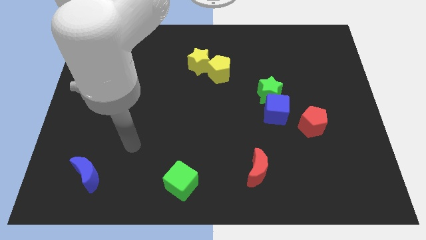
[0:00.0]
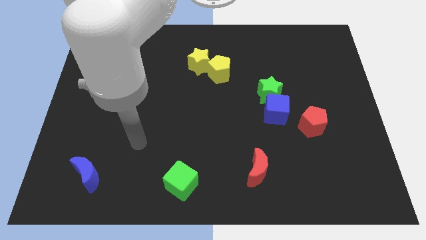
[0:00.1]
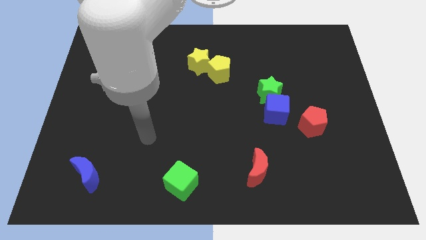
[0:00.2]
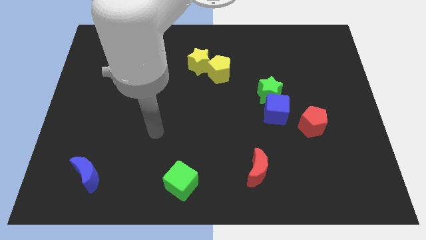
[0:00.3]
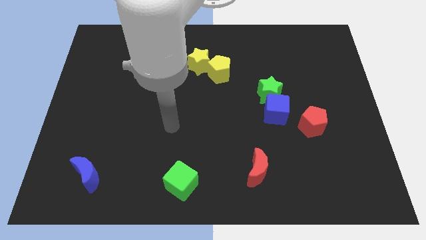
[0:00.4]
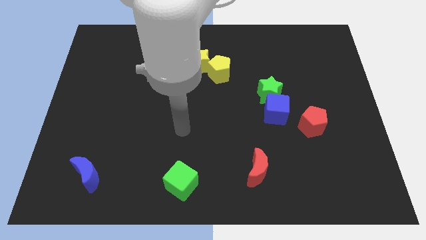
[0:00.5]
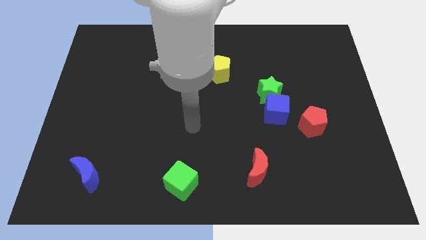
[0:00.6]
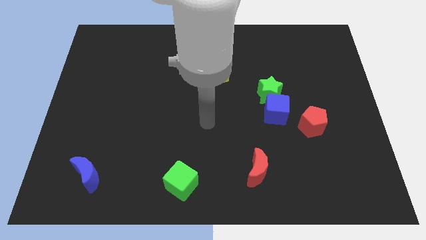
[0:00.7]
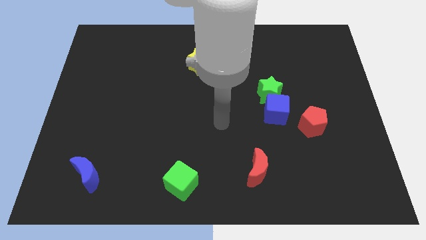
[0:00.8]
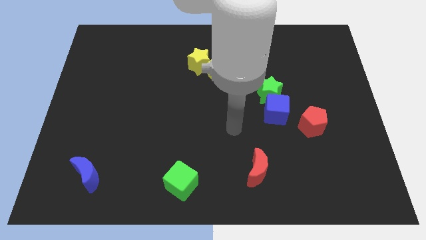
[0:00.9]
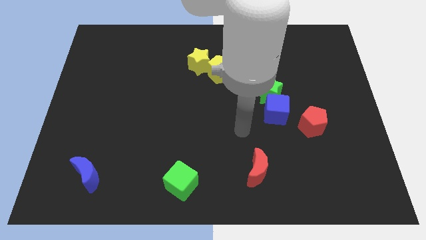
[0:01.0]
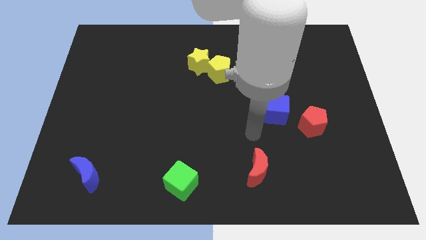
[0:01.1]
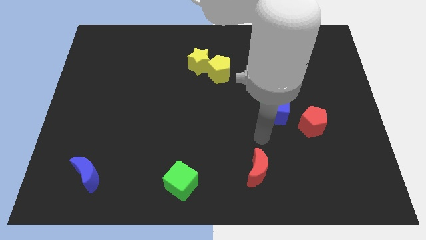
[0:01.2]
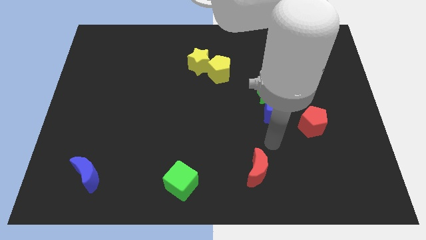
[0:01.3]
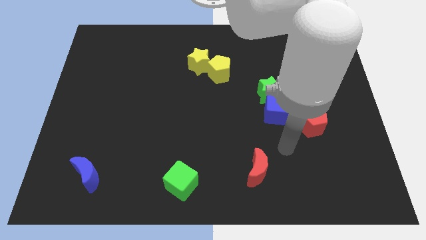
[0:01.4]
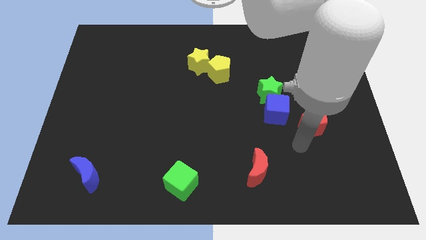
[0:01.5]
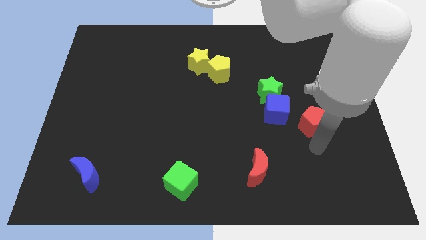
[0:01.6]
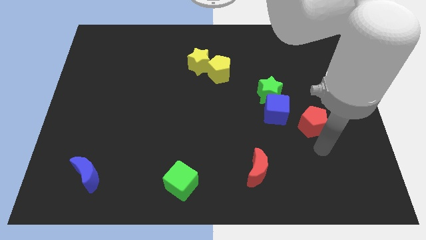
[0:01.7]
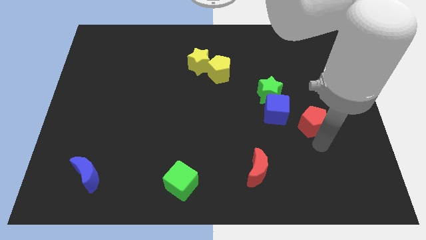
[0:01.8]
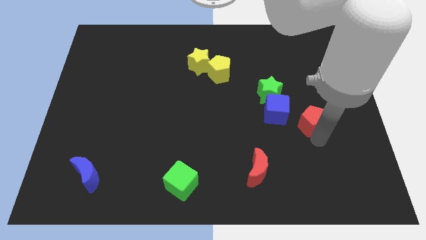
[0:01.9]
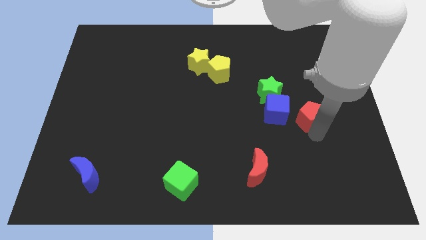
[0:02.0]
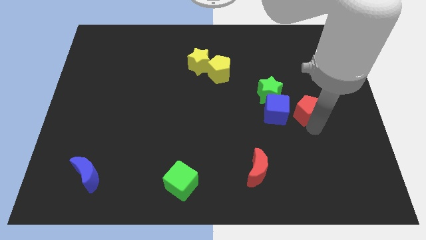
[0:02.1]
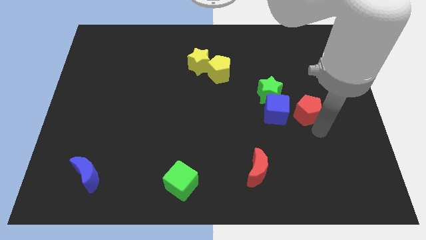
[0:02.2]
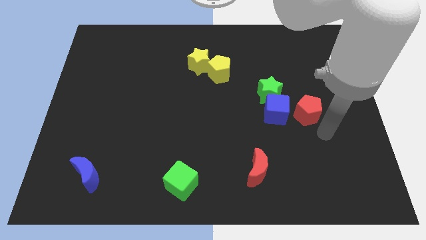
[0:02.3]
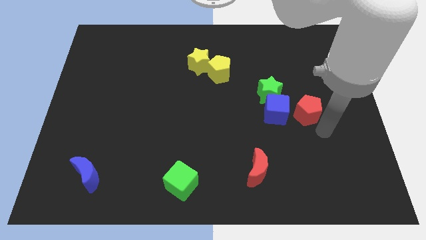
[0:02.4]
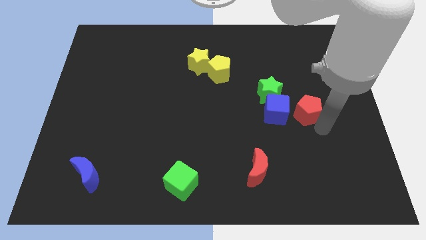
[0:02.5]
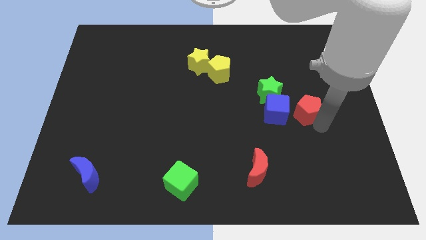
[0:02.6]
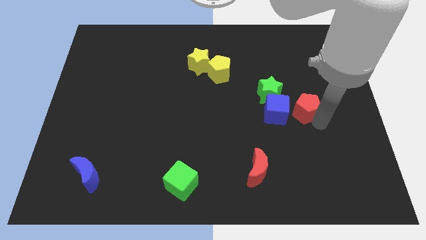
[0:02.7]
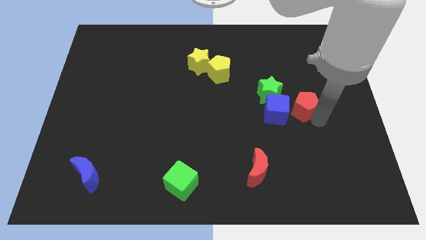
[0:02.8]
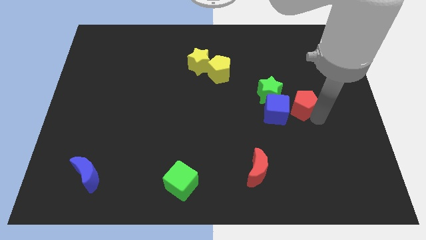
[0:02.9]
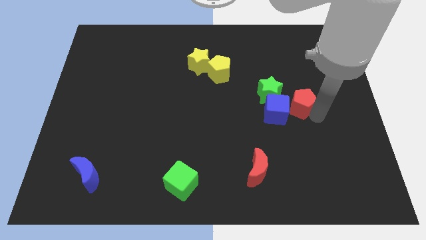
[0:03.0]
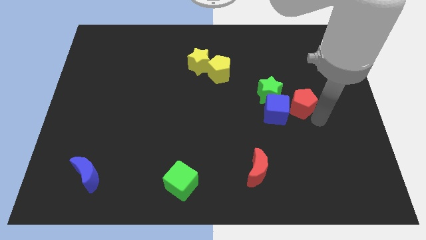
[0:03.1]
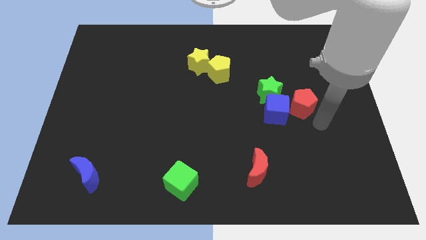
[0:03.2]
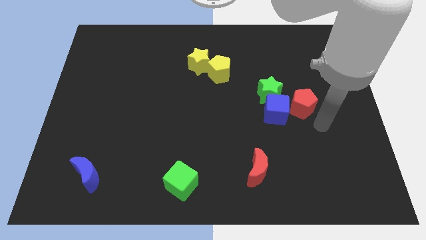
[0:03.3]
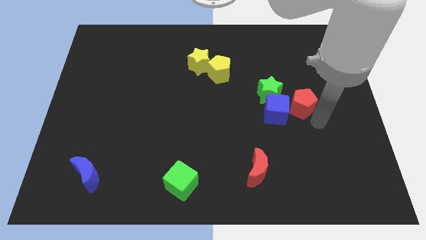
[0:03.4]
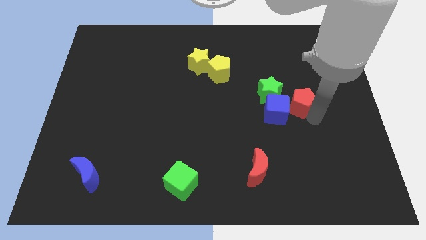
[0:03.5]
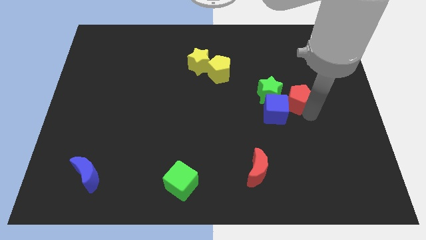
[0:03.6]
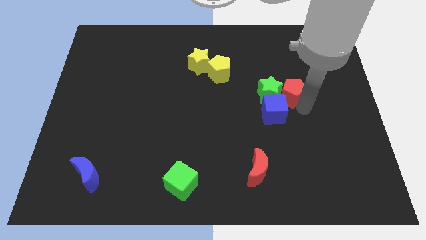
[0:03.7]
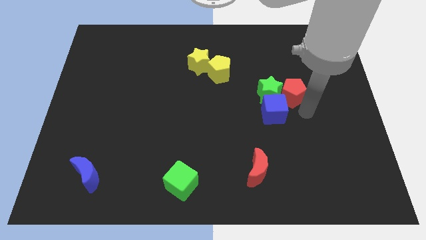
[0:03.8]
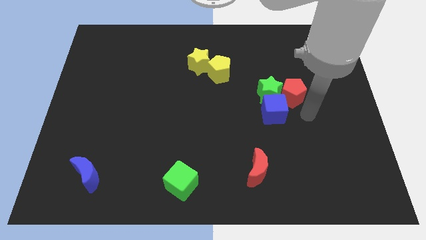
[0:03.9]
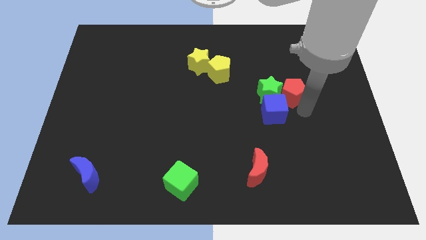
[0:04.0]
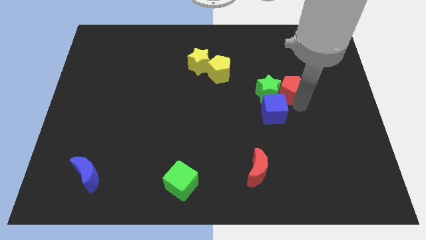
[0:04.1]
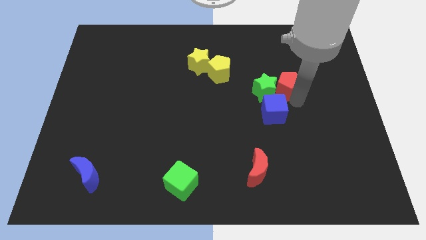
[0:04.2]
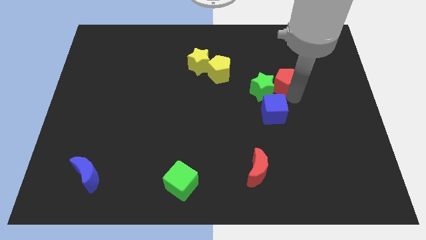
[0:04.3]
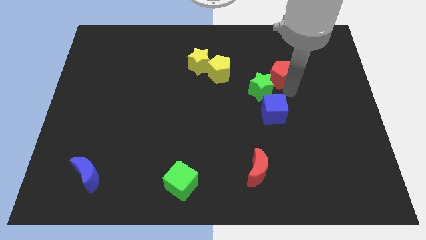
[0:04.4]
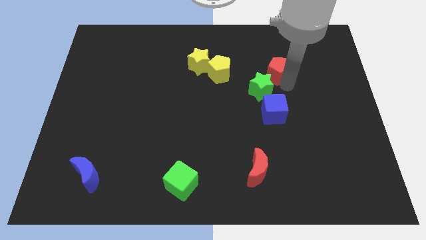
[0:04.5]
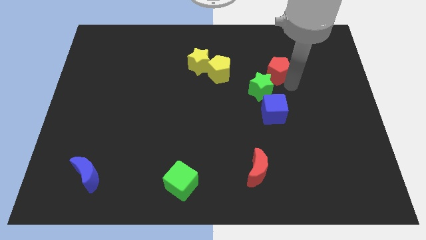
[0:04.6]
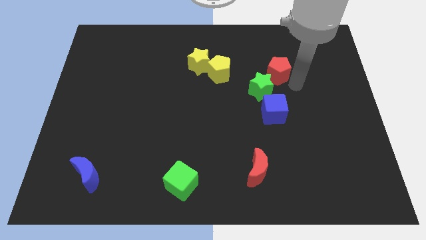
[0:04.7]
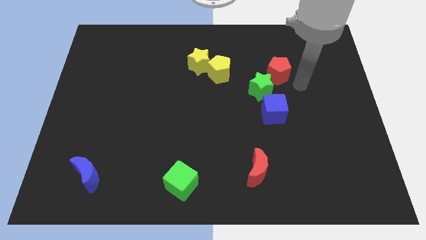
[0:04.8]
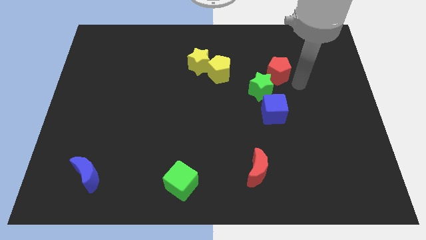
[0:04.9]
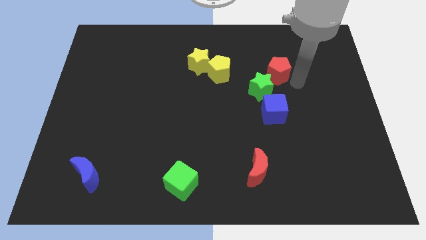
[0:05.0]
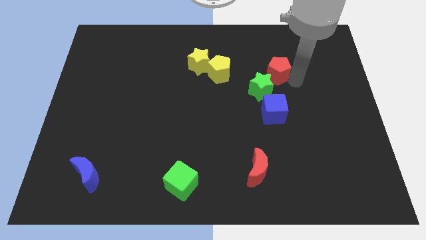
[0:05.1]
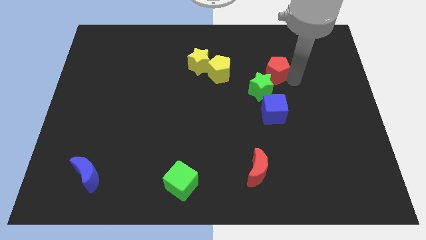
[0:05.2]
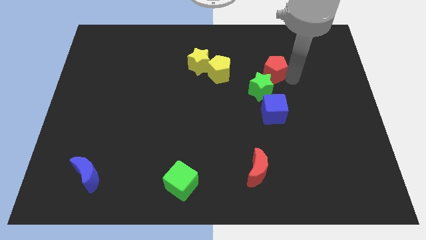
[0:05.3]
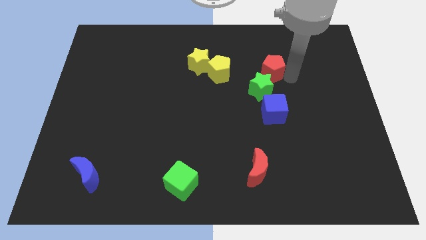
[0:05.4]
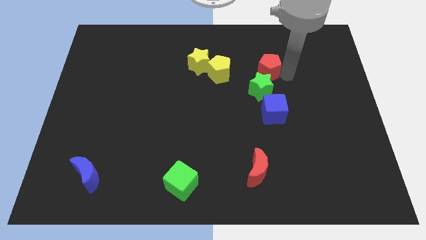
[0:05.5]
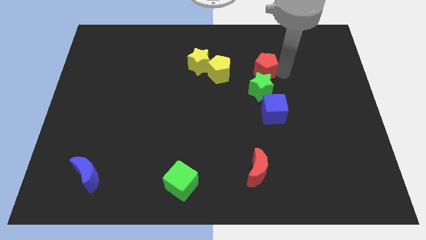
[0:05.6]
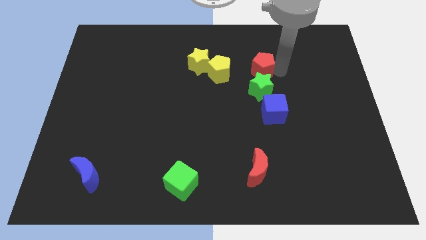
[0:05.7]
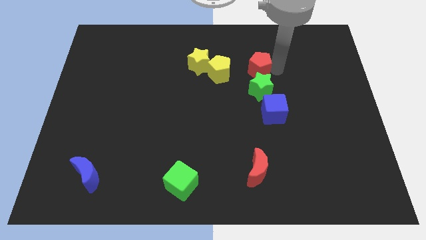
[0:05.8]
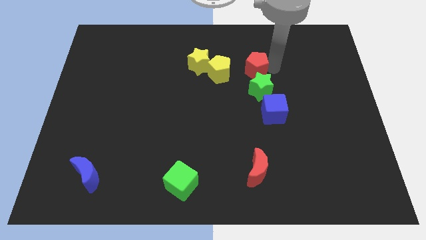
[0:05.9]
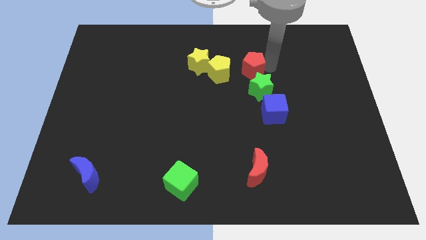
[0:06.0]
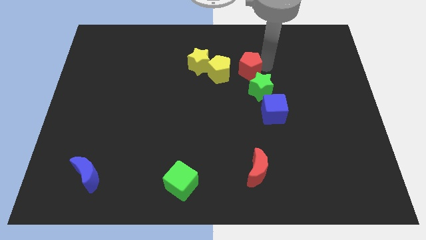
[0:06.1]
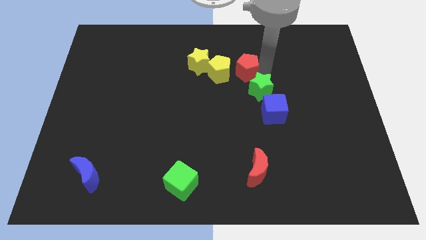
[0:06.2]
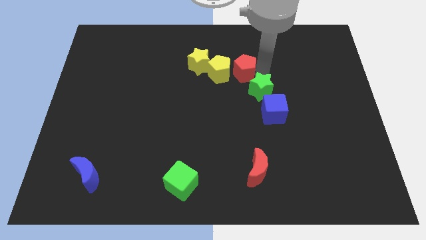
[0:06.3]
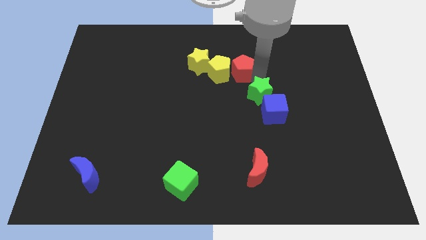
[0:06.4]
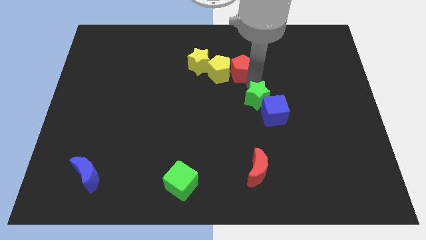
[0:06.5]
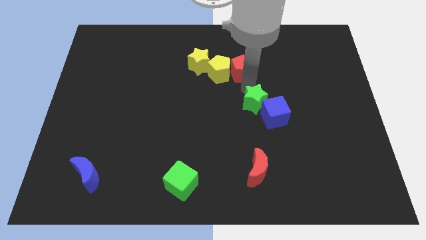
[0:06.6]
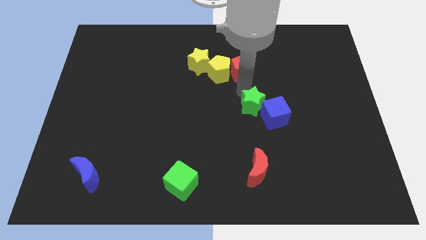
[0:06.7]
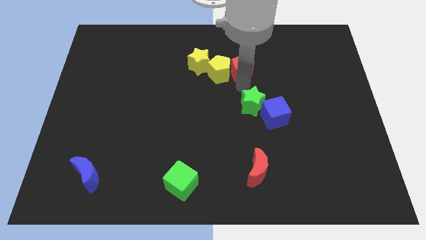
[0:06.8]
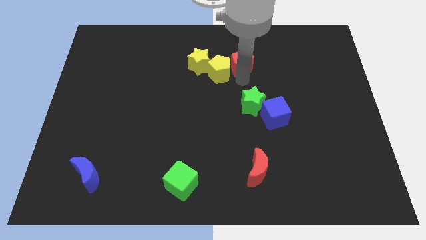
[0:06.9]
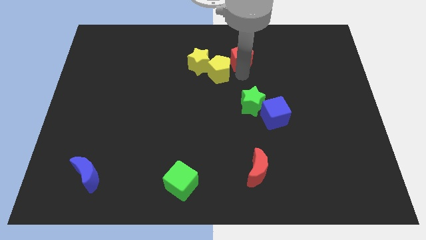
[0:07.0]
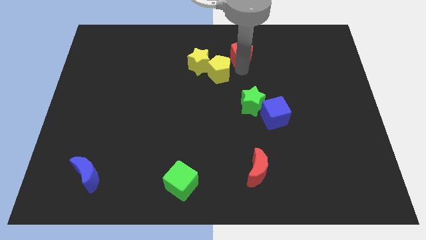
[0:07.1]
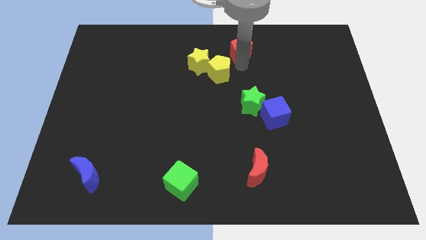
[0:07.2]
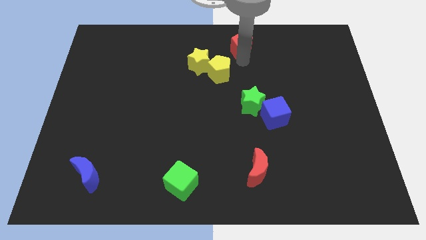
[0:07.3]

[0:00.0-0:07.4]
put the red pentagon to the top

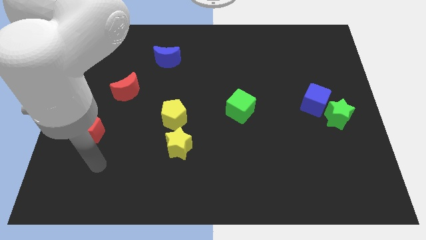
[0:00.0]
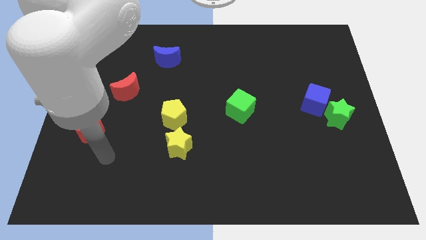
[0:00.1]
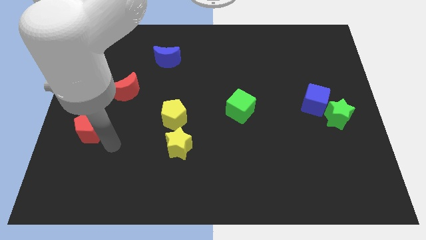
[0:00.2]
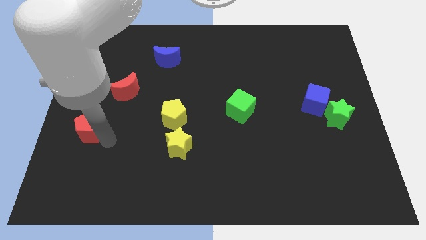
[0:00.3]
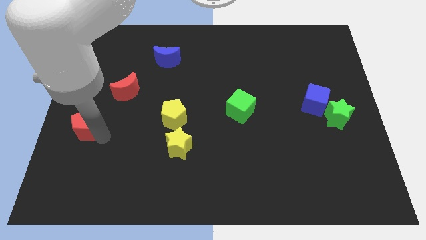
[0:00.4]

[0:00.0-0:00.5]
slide the red pentagon to the left side of the board
